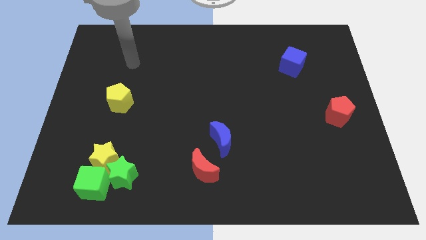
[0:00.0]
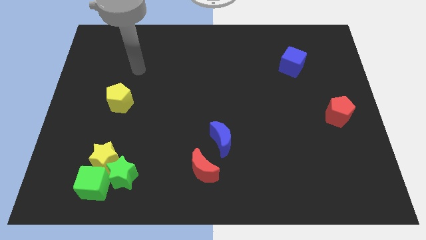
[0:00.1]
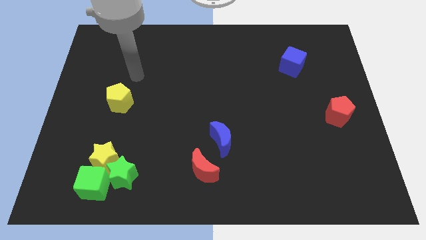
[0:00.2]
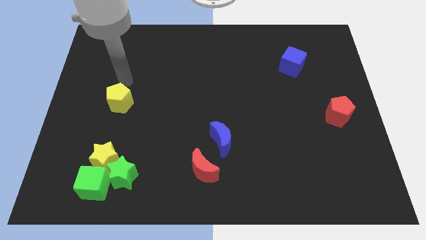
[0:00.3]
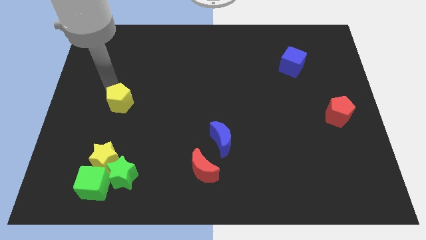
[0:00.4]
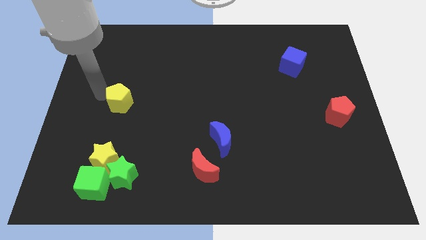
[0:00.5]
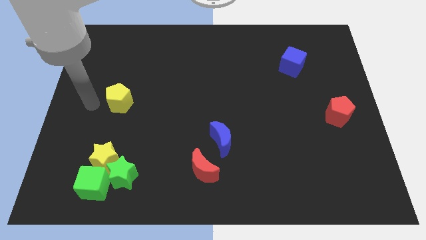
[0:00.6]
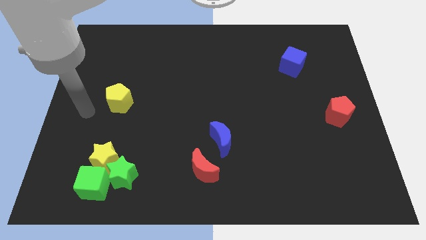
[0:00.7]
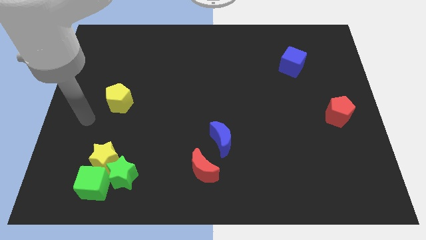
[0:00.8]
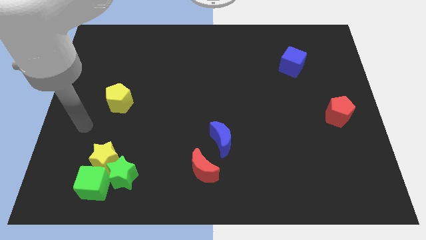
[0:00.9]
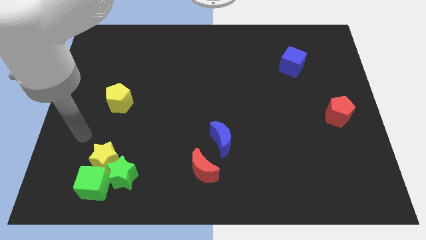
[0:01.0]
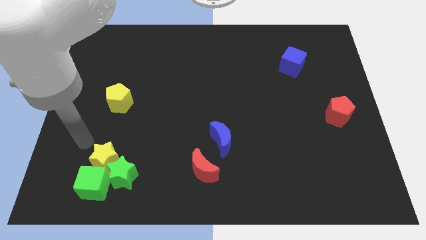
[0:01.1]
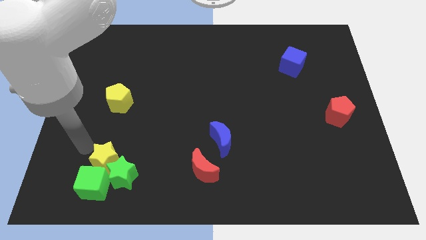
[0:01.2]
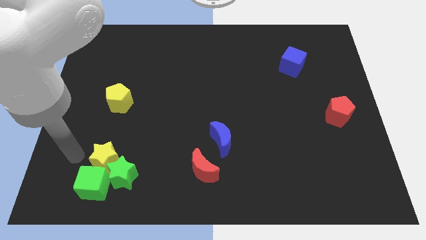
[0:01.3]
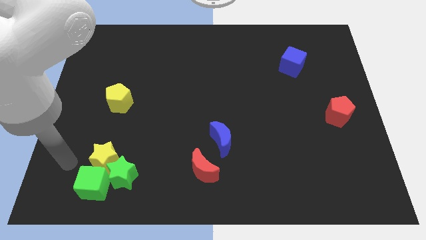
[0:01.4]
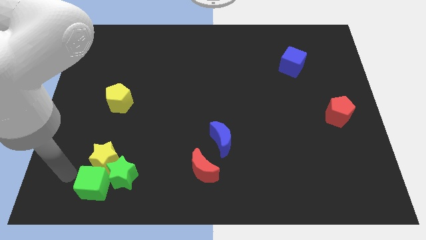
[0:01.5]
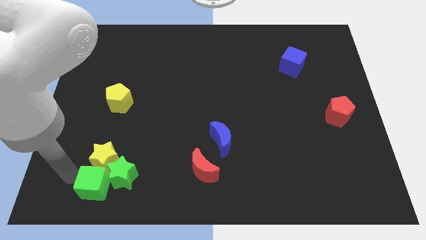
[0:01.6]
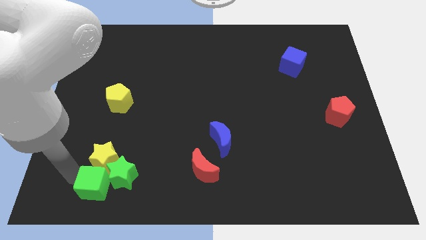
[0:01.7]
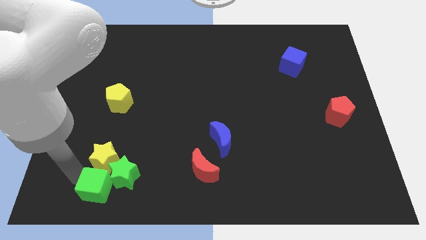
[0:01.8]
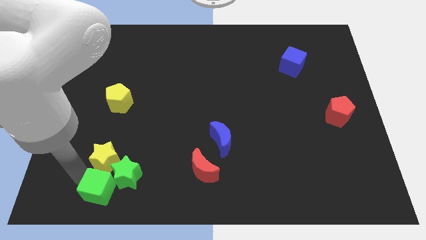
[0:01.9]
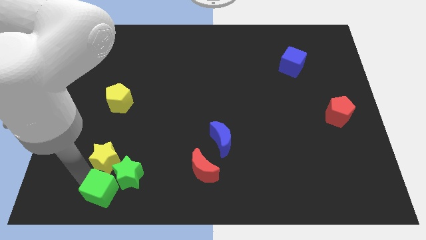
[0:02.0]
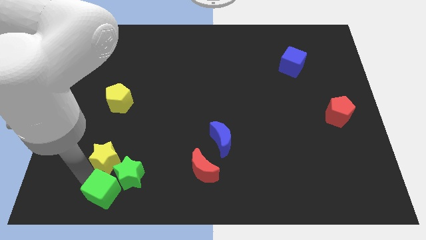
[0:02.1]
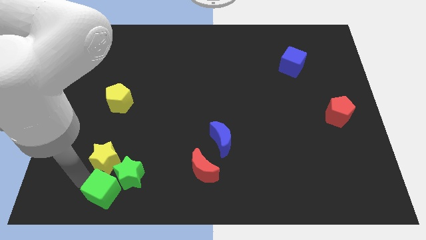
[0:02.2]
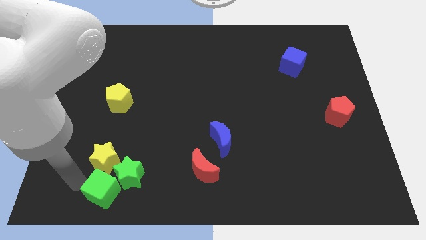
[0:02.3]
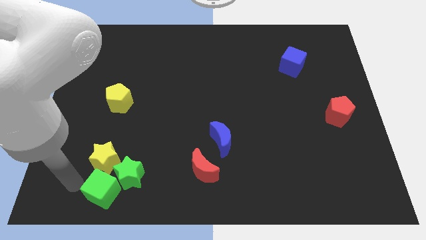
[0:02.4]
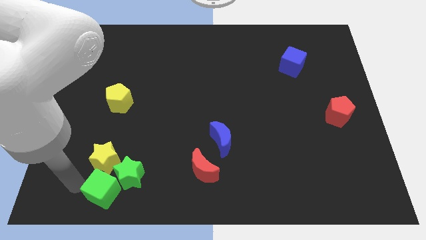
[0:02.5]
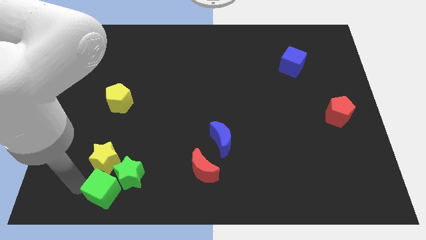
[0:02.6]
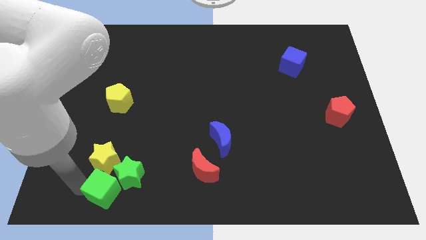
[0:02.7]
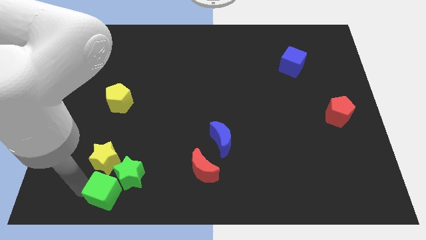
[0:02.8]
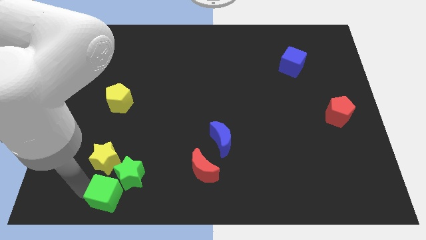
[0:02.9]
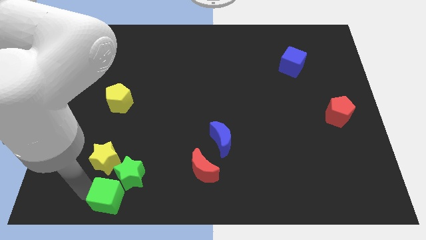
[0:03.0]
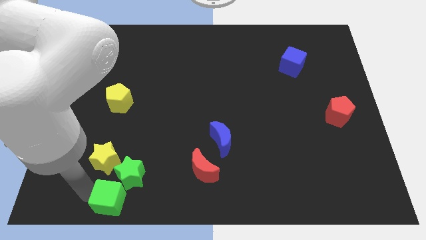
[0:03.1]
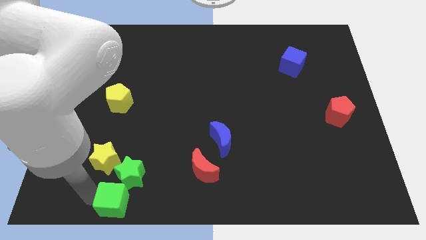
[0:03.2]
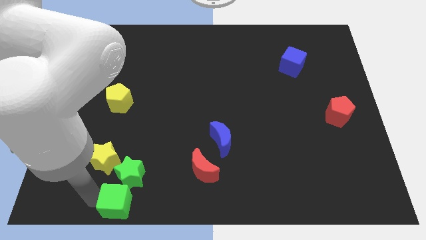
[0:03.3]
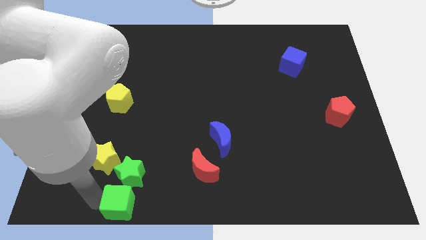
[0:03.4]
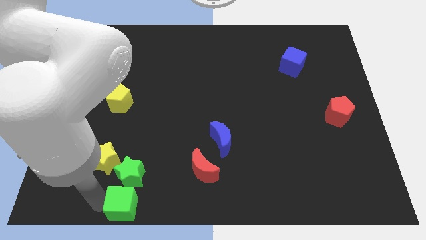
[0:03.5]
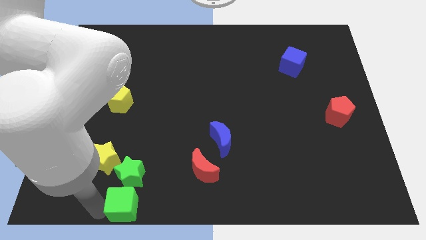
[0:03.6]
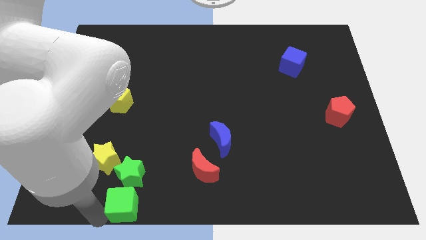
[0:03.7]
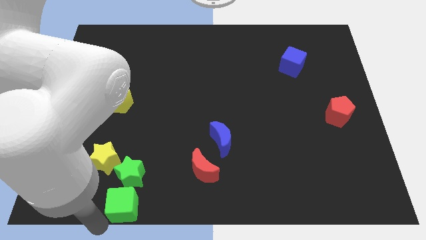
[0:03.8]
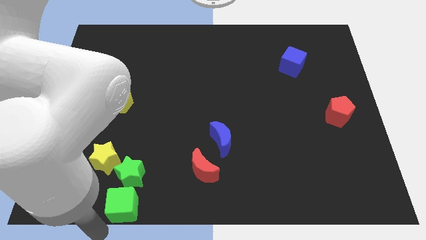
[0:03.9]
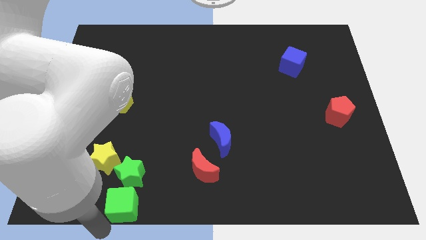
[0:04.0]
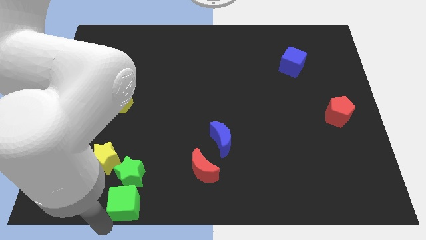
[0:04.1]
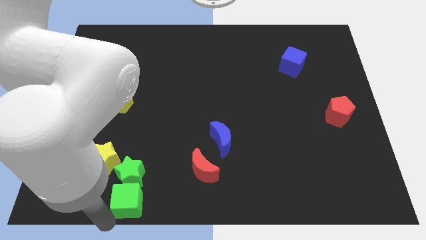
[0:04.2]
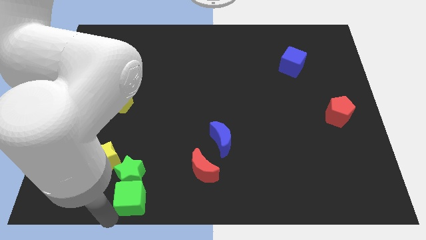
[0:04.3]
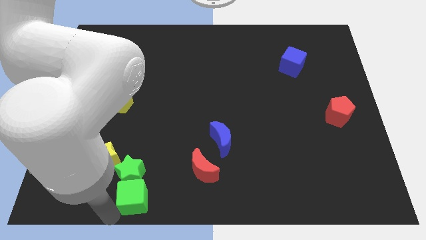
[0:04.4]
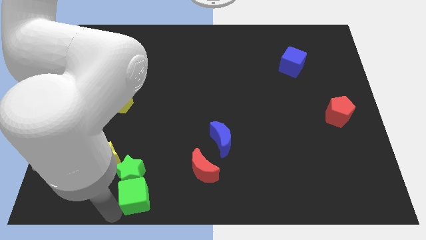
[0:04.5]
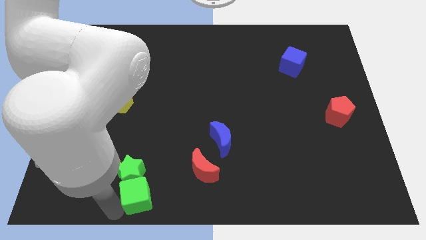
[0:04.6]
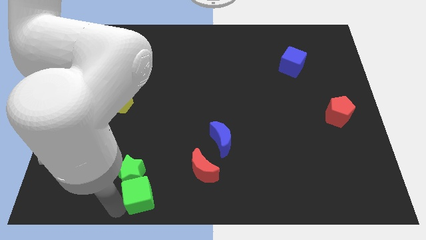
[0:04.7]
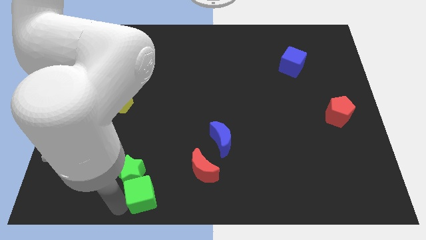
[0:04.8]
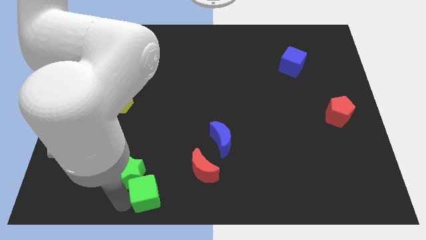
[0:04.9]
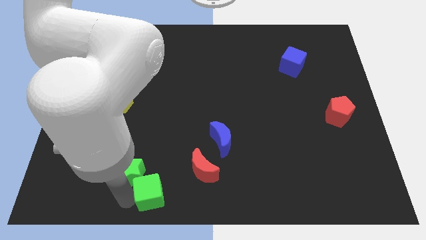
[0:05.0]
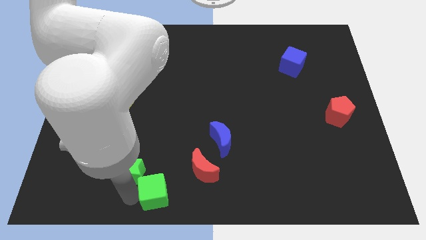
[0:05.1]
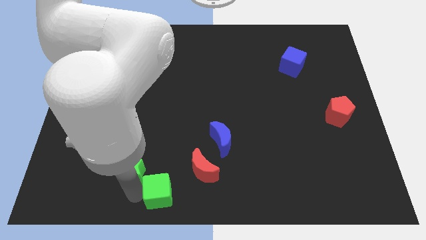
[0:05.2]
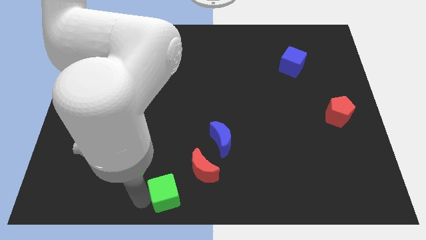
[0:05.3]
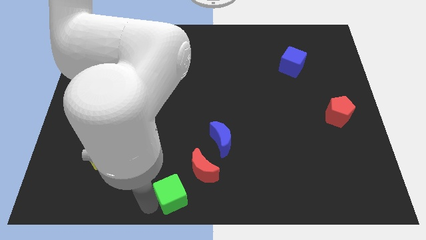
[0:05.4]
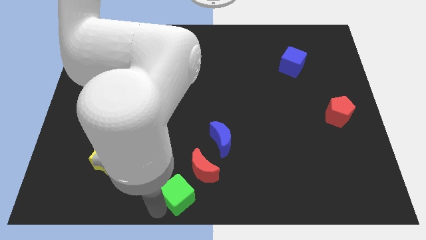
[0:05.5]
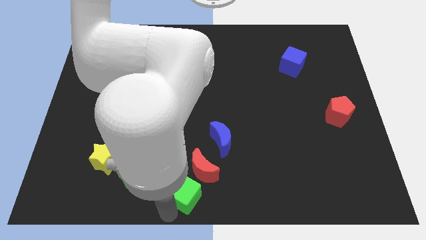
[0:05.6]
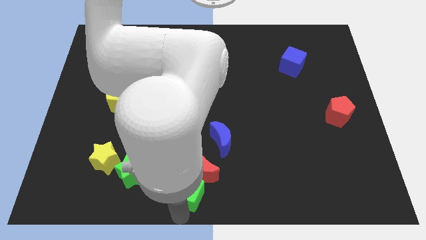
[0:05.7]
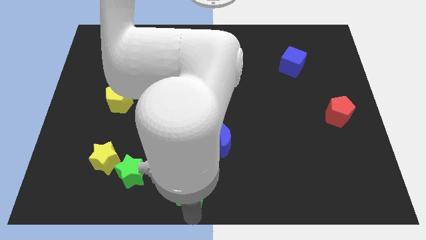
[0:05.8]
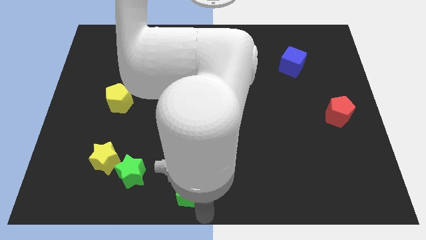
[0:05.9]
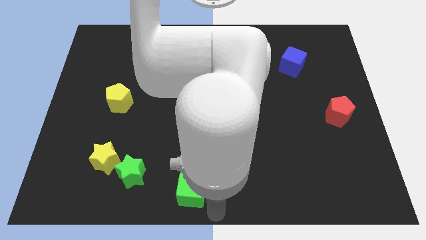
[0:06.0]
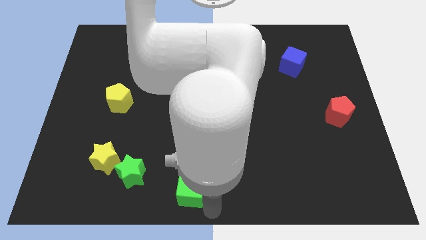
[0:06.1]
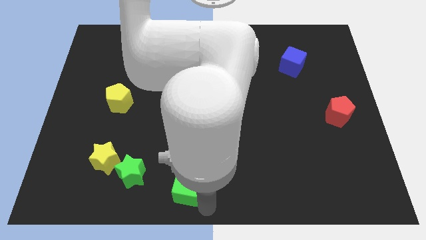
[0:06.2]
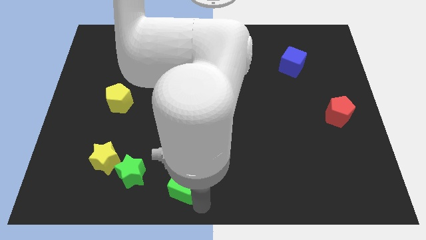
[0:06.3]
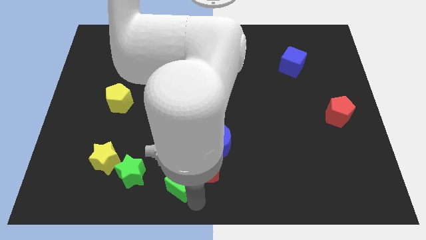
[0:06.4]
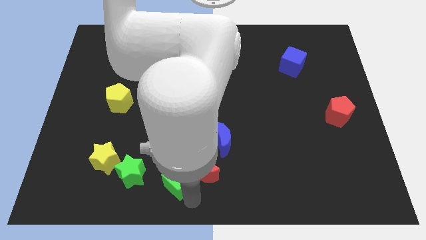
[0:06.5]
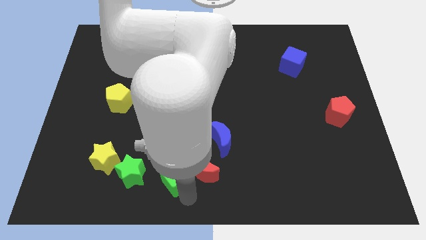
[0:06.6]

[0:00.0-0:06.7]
move the green cube up and to the right somewhat

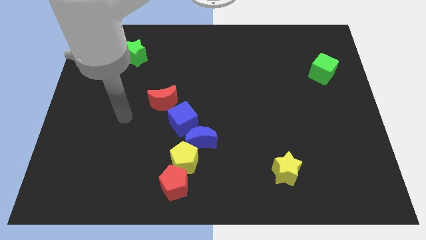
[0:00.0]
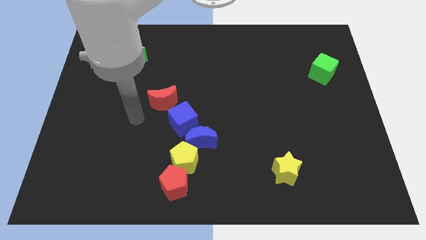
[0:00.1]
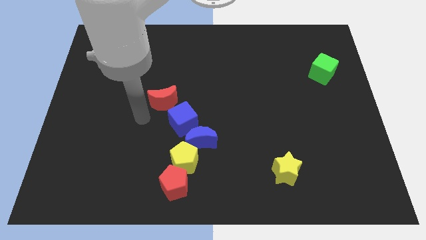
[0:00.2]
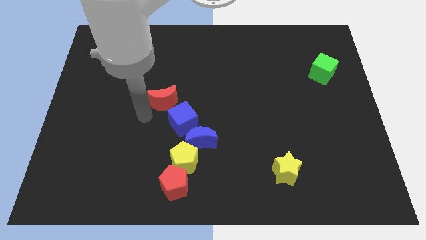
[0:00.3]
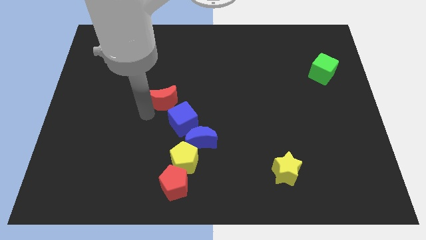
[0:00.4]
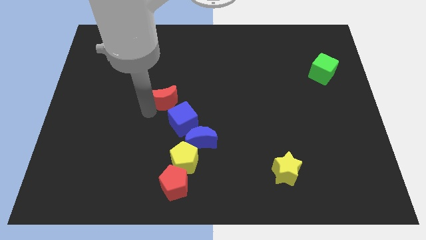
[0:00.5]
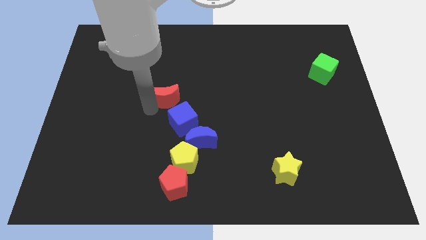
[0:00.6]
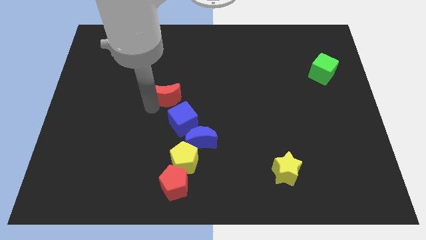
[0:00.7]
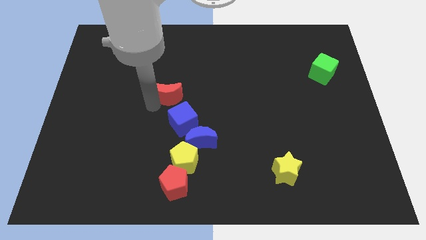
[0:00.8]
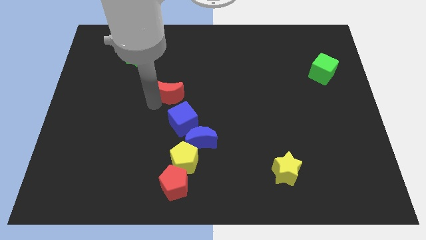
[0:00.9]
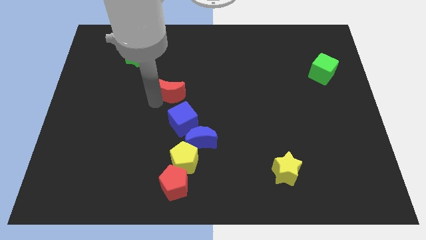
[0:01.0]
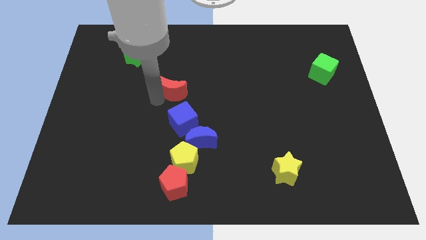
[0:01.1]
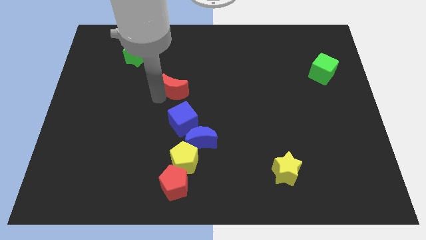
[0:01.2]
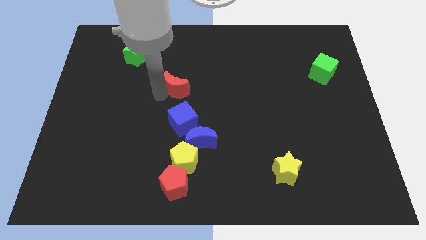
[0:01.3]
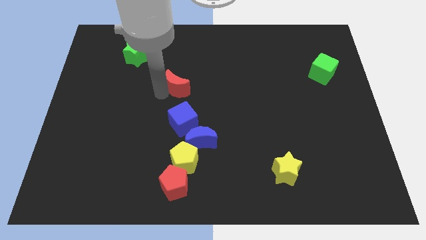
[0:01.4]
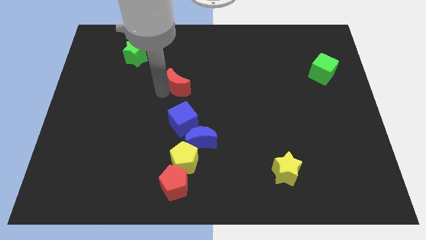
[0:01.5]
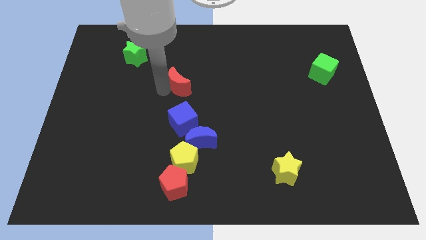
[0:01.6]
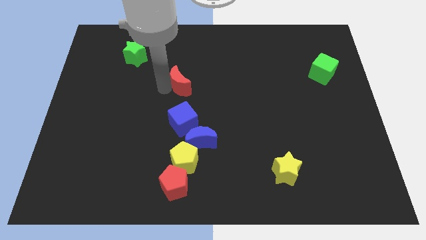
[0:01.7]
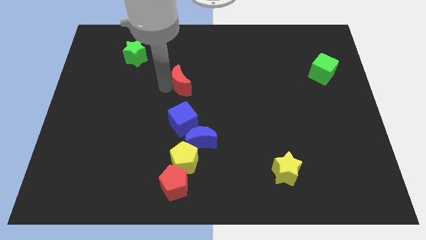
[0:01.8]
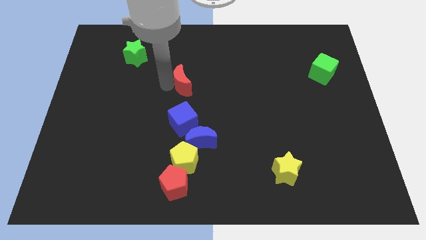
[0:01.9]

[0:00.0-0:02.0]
push the red moon diagonally up and right a little
